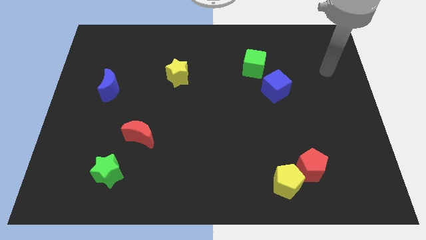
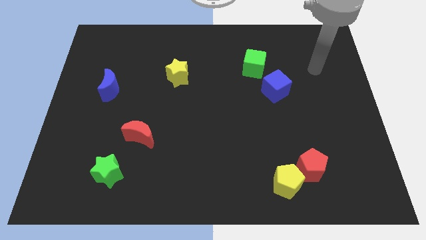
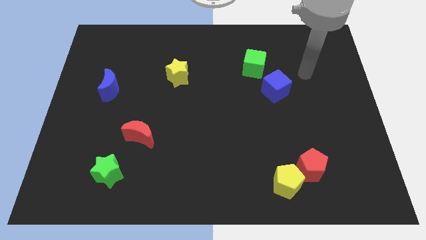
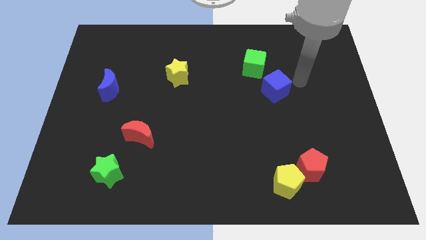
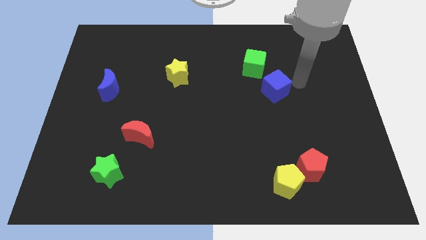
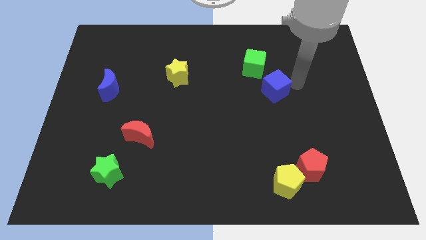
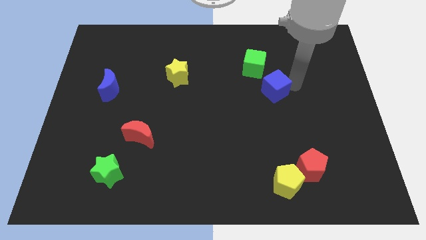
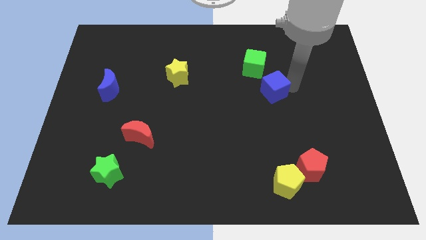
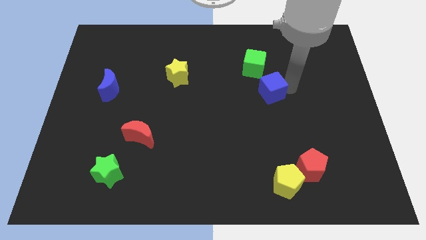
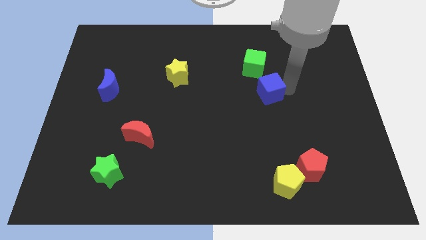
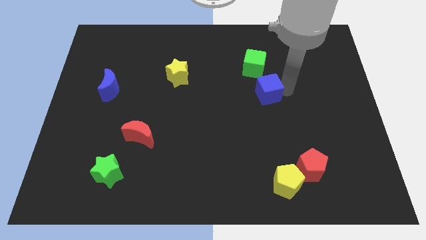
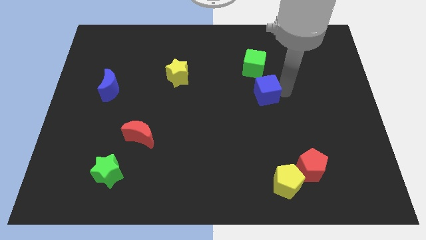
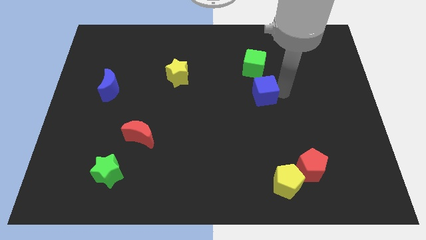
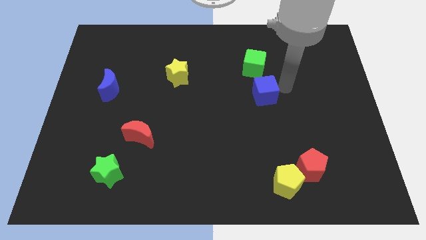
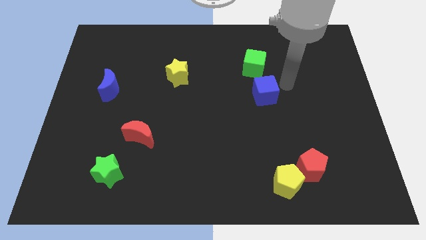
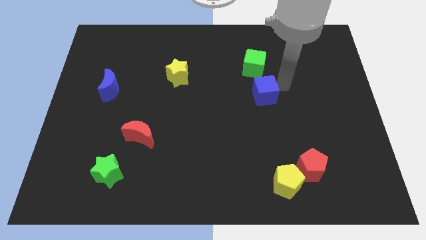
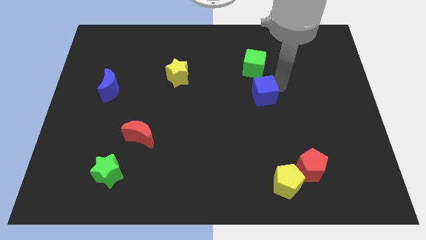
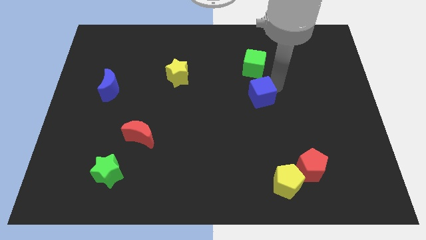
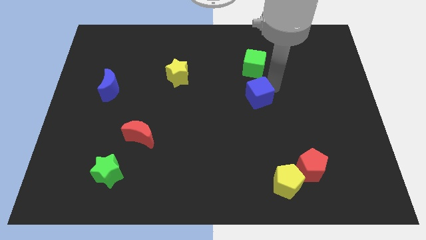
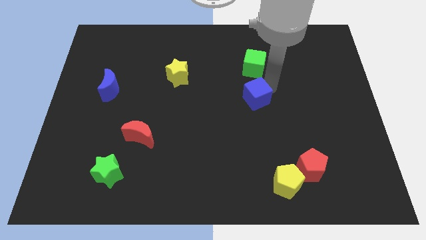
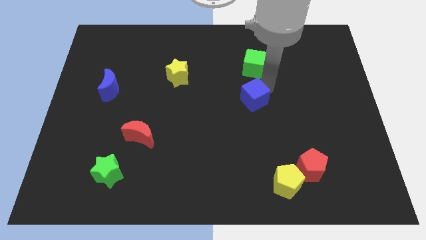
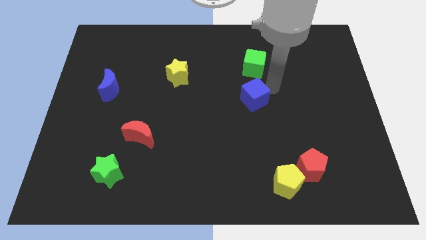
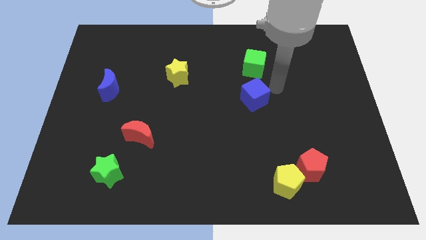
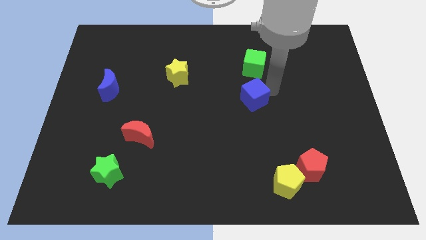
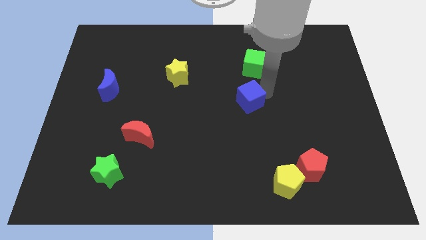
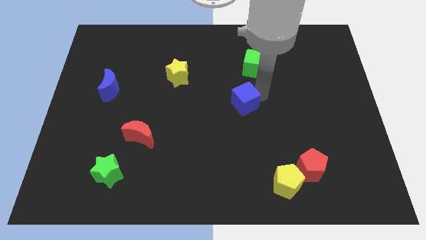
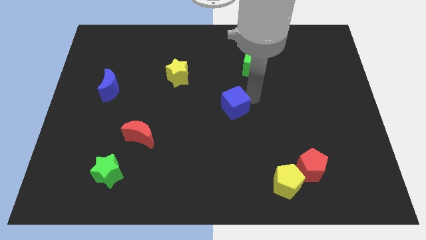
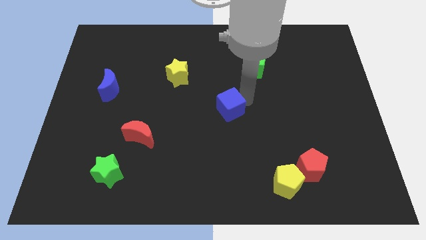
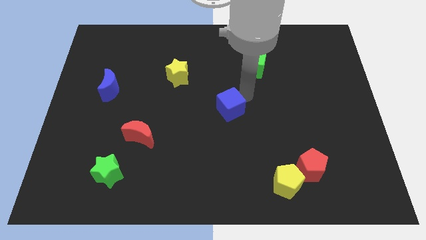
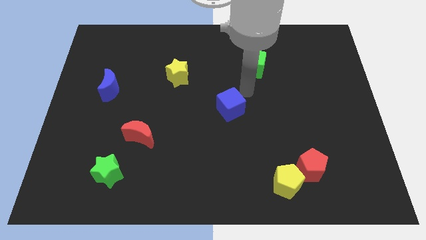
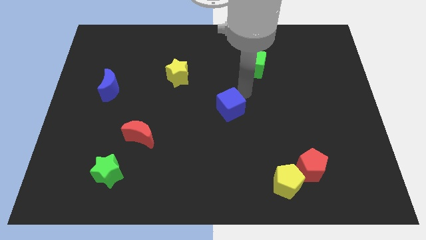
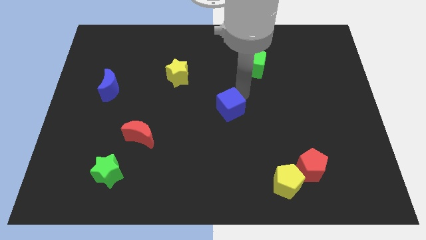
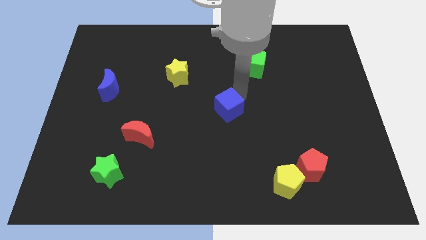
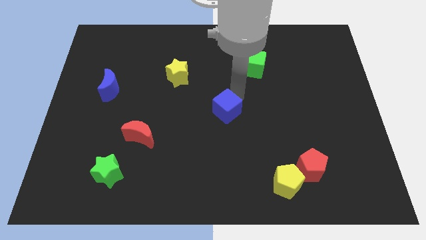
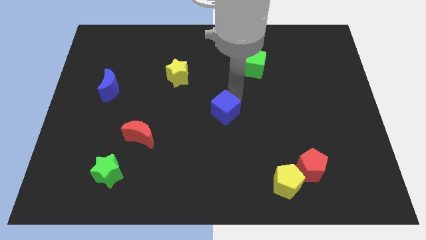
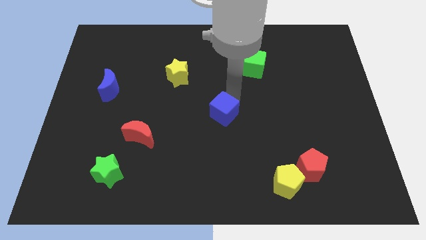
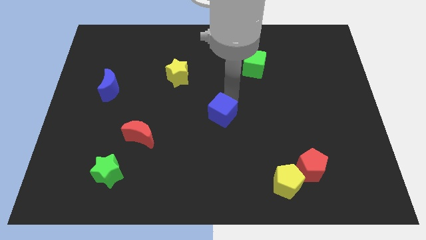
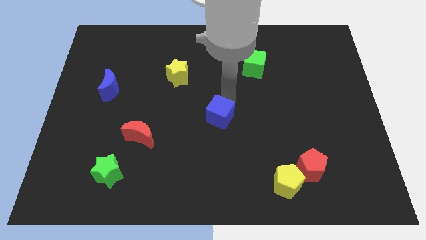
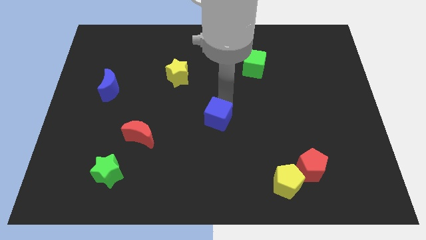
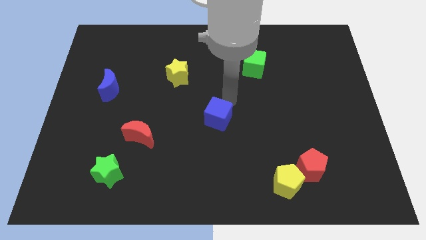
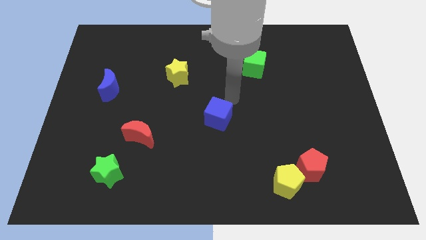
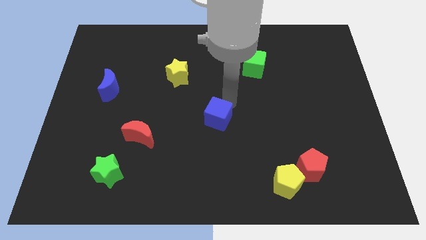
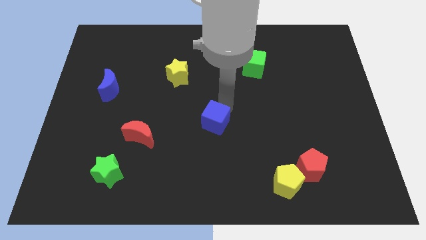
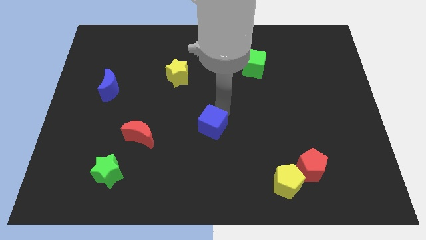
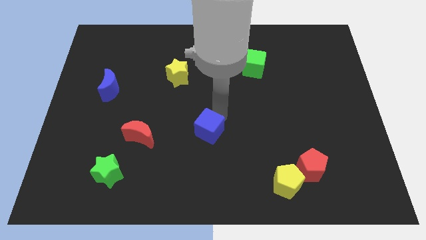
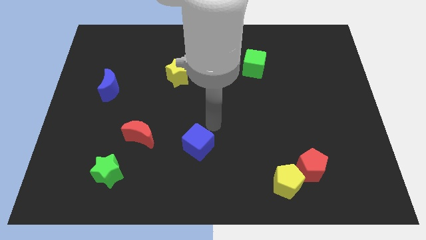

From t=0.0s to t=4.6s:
move the blue cube down and then left

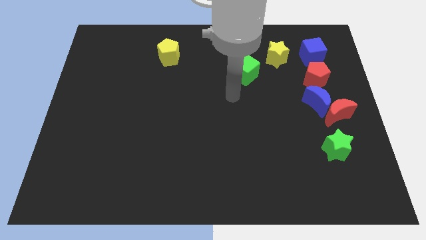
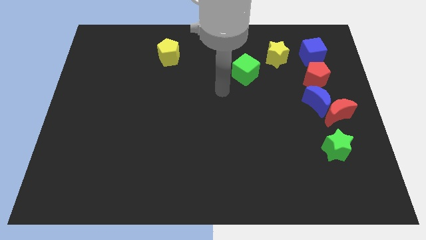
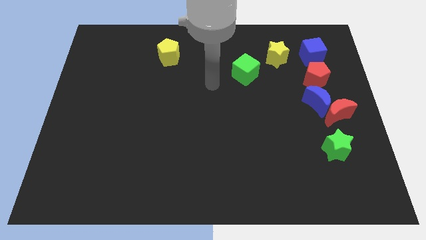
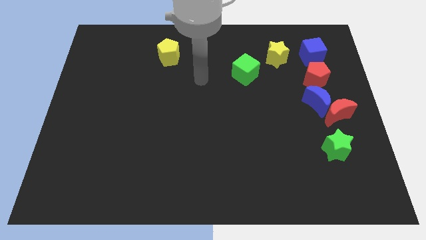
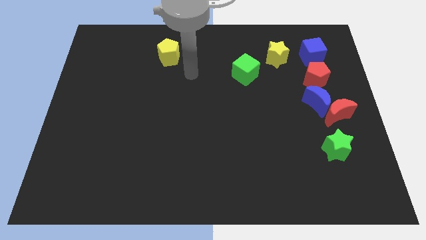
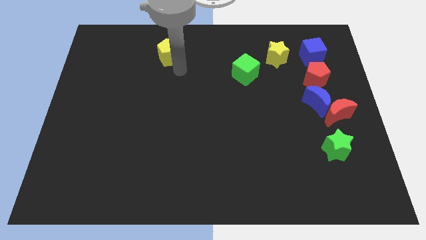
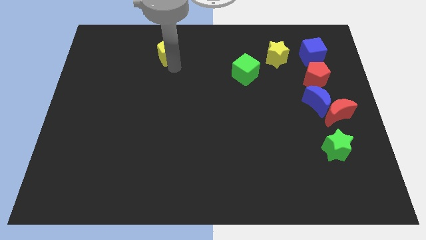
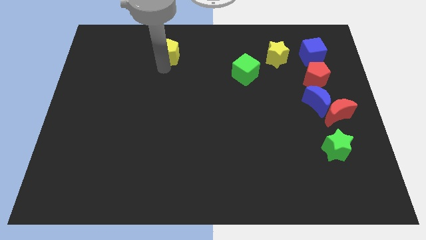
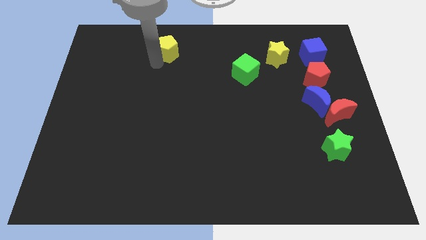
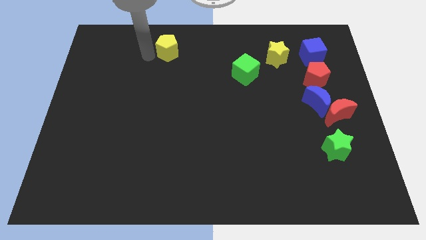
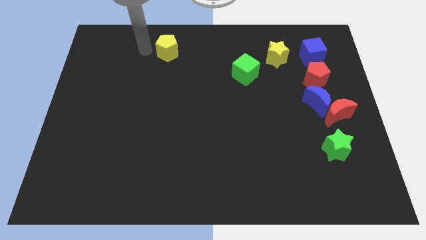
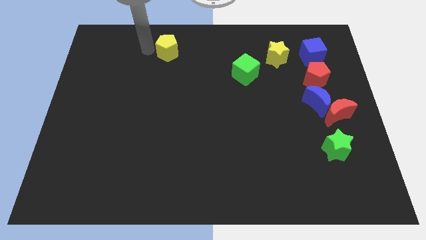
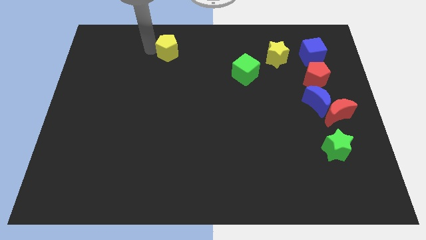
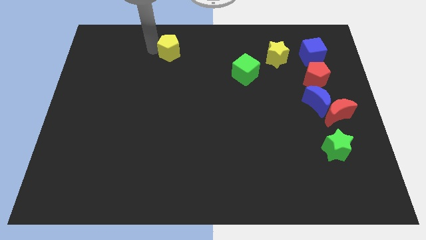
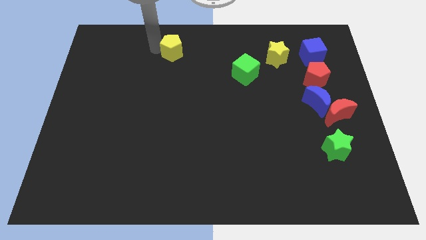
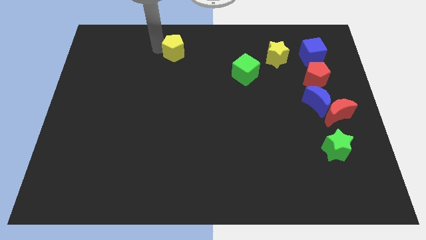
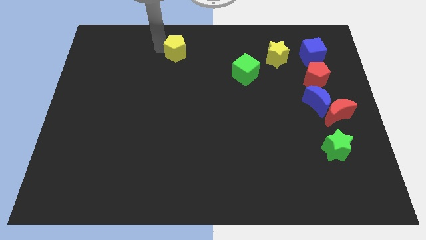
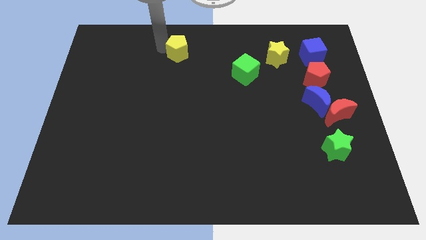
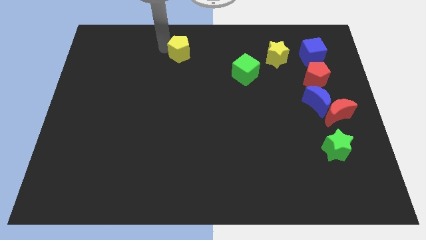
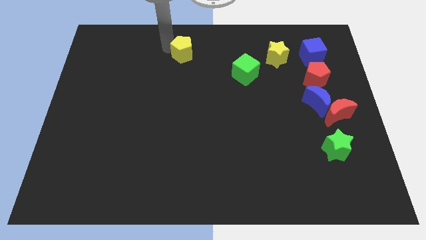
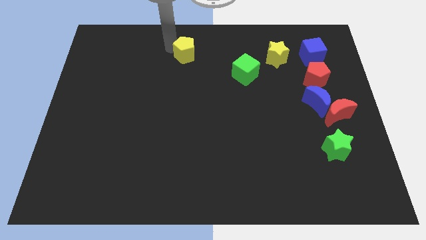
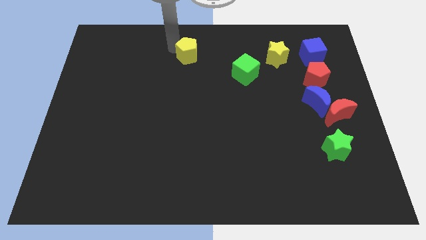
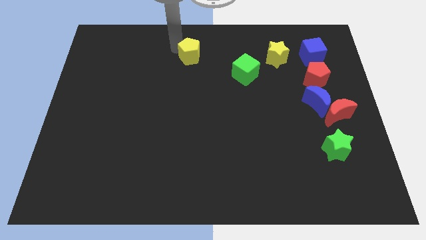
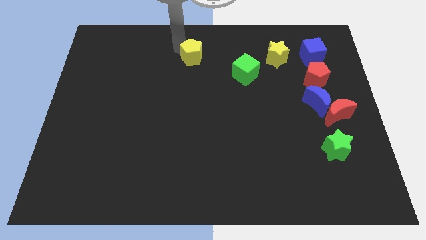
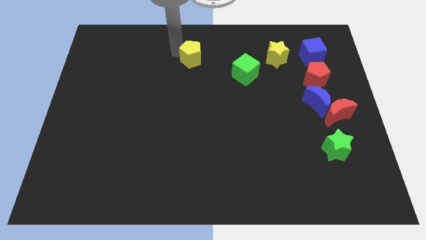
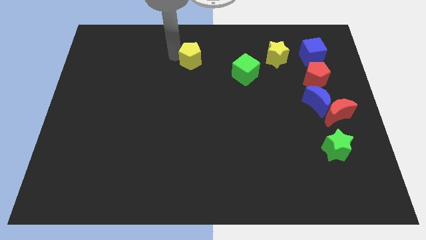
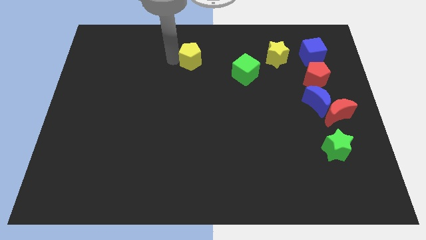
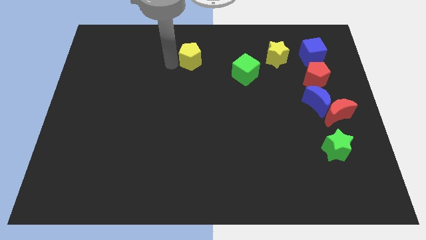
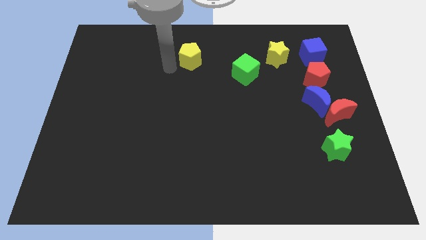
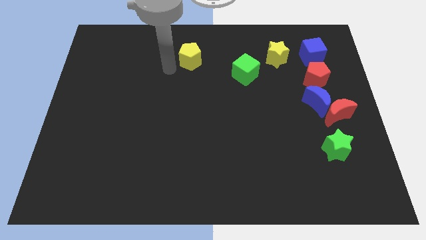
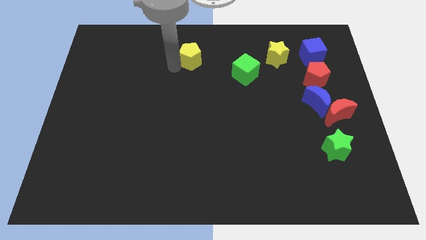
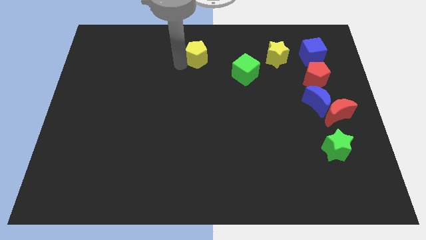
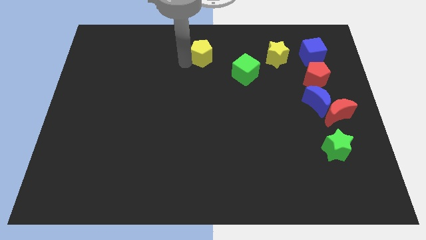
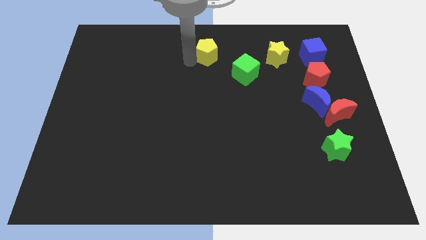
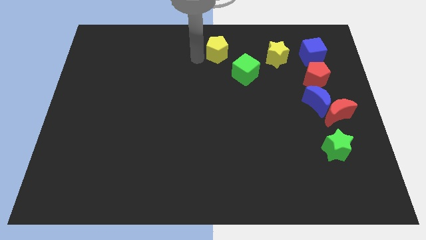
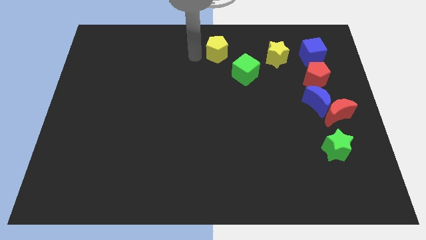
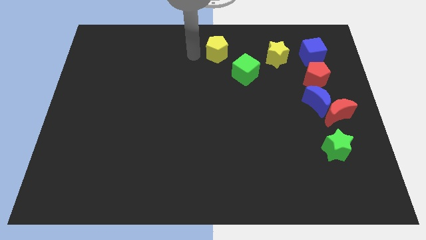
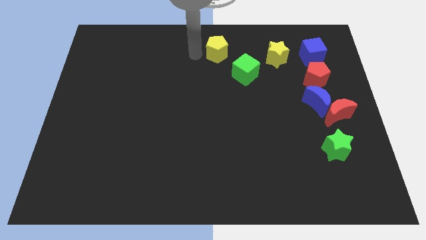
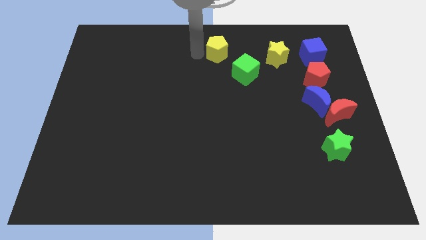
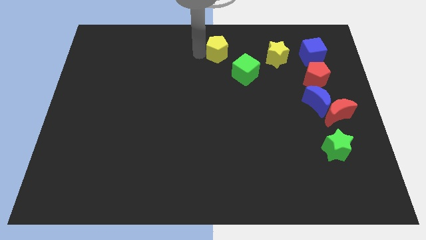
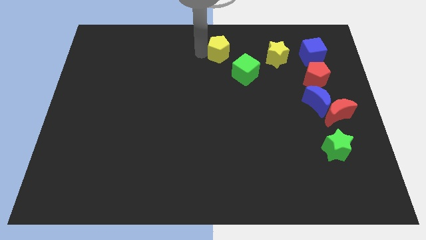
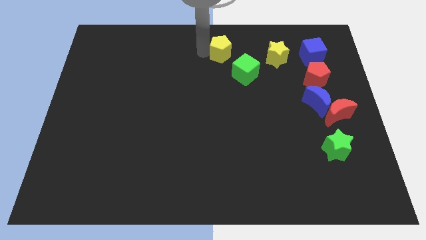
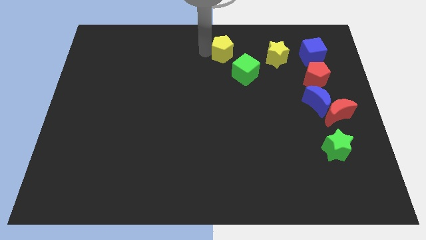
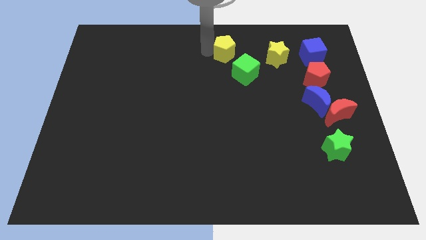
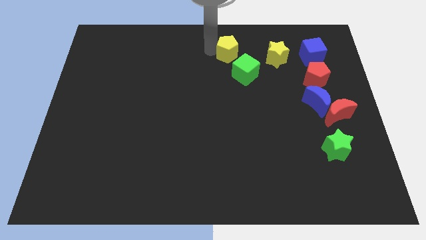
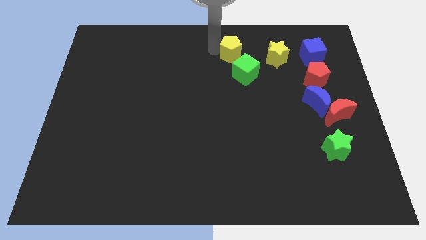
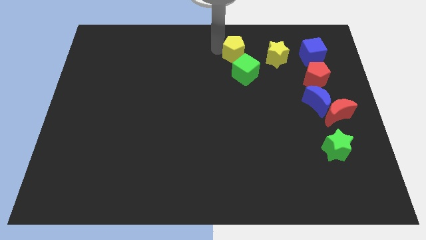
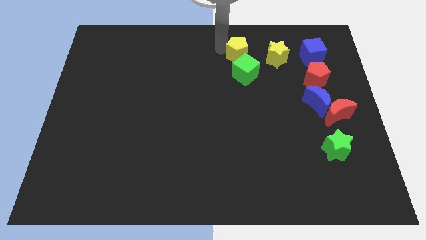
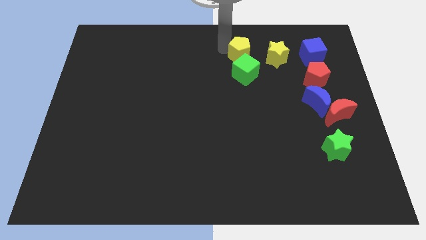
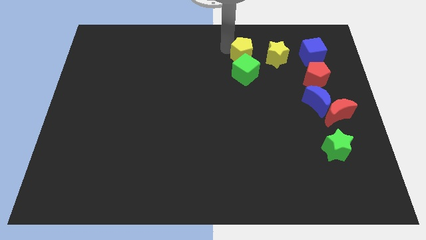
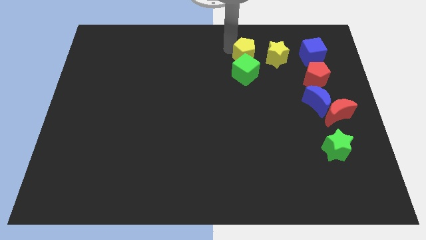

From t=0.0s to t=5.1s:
push the yellow pentagon to the right
